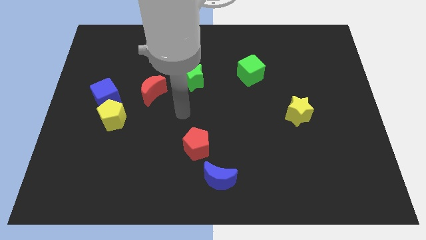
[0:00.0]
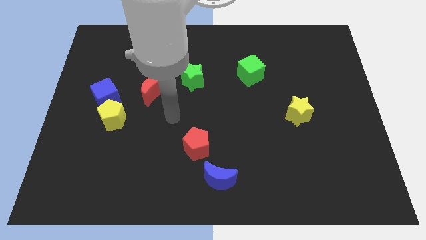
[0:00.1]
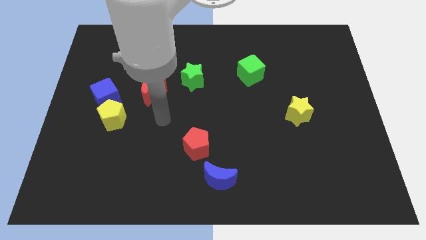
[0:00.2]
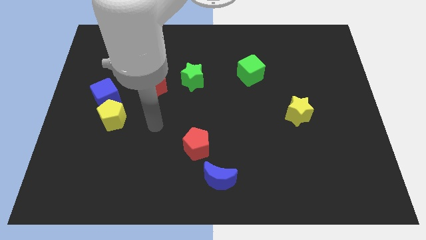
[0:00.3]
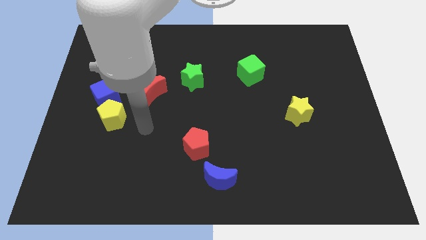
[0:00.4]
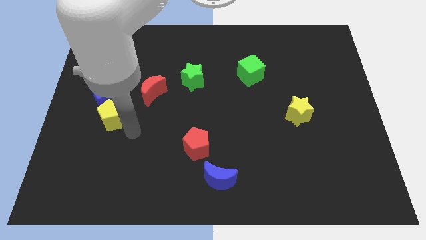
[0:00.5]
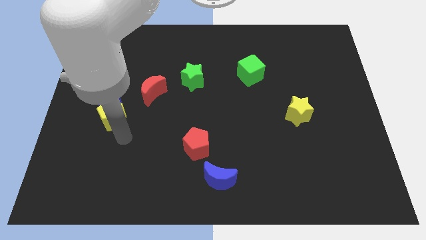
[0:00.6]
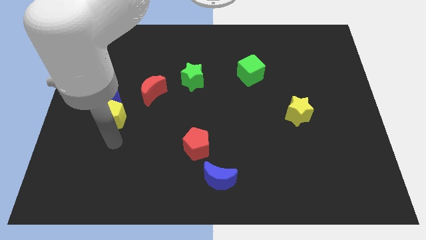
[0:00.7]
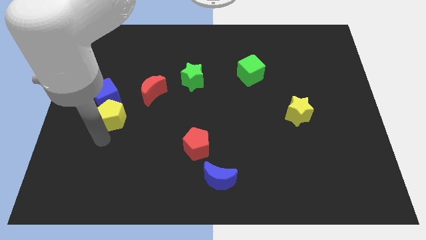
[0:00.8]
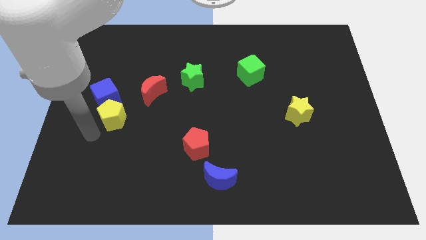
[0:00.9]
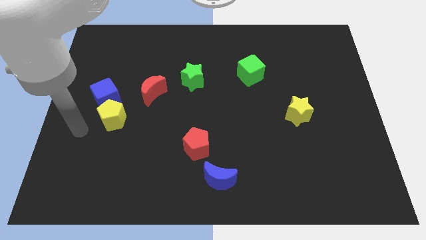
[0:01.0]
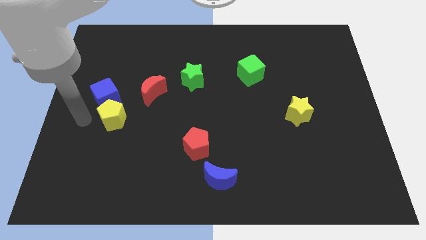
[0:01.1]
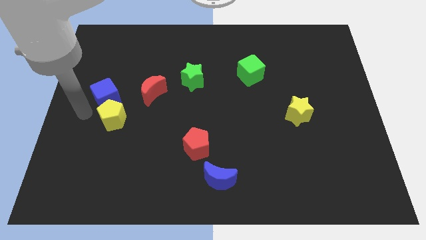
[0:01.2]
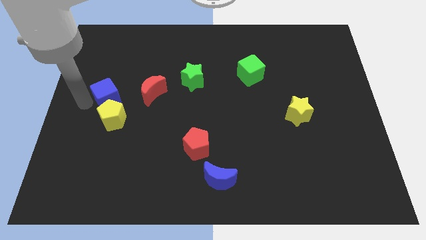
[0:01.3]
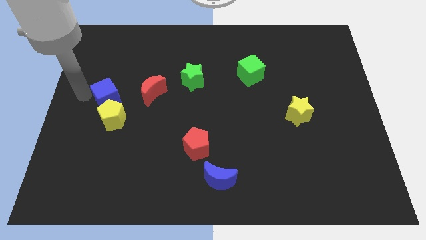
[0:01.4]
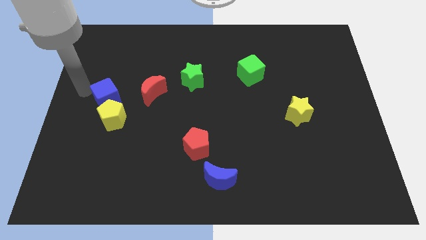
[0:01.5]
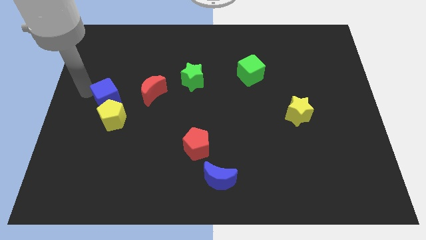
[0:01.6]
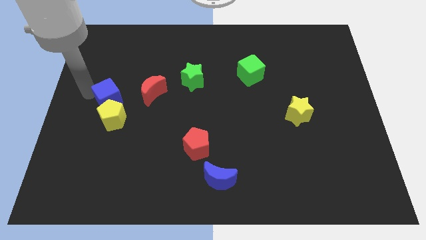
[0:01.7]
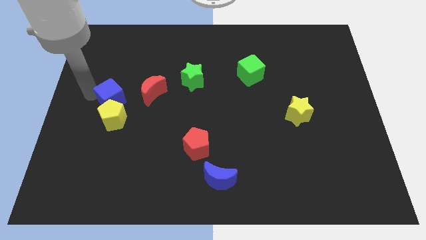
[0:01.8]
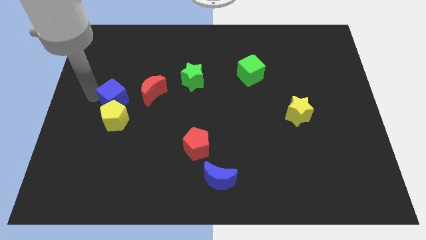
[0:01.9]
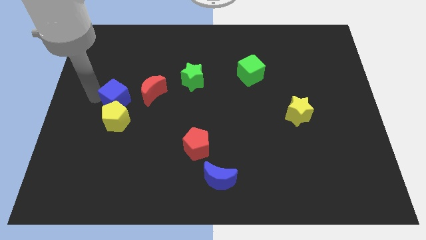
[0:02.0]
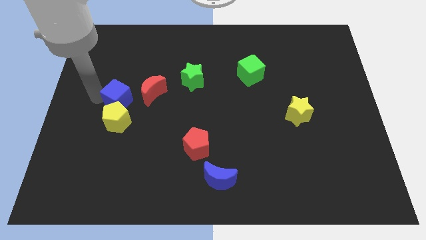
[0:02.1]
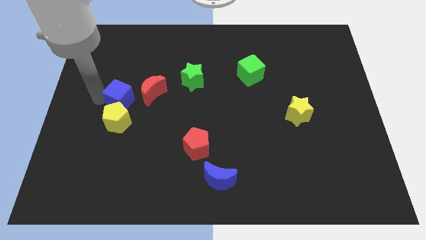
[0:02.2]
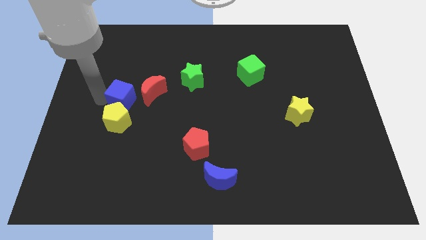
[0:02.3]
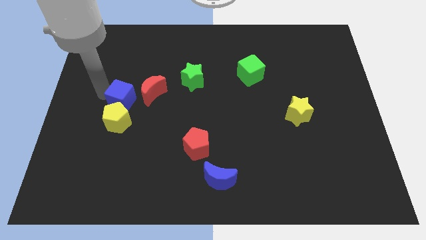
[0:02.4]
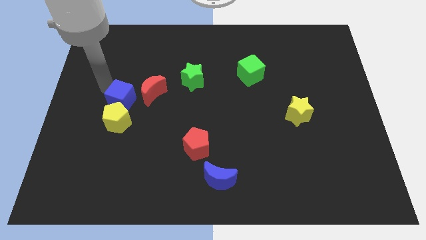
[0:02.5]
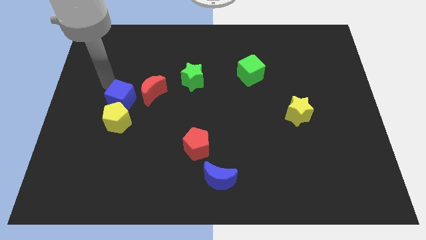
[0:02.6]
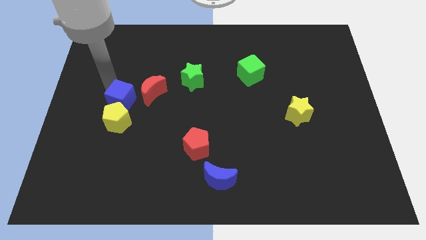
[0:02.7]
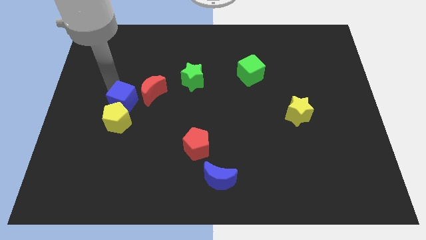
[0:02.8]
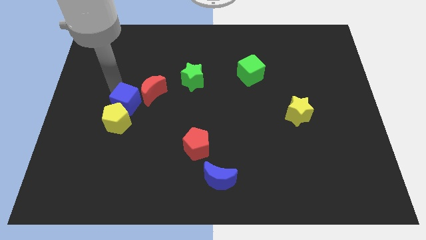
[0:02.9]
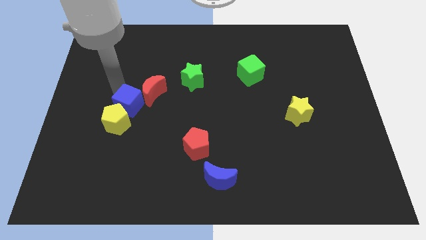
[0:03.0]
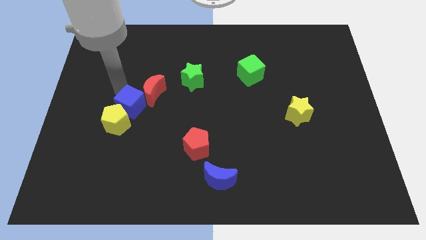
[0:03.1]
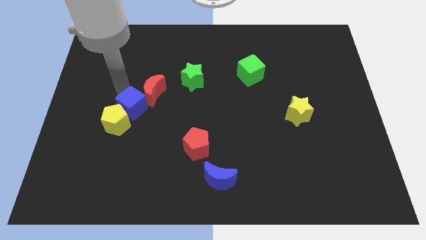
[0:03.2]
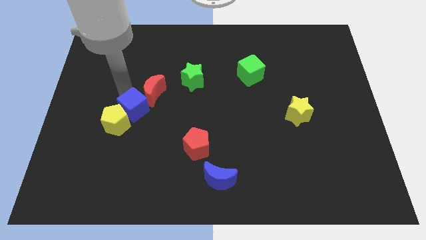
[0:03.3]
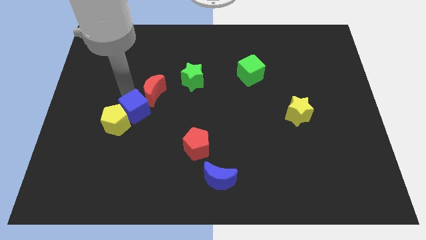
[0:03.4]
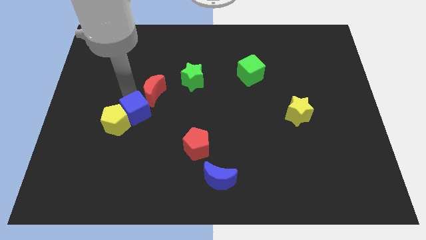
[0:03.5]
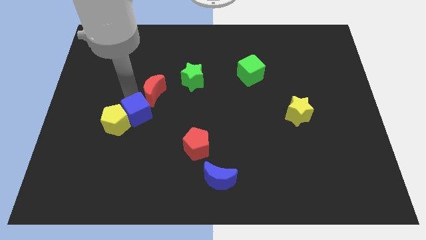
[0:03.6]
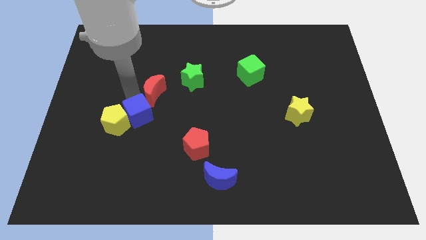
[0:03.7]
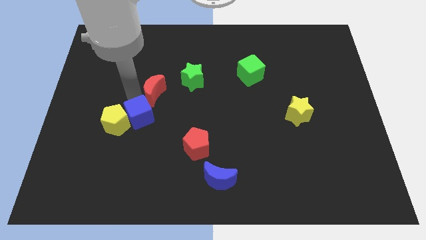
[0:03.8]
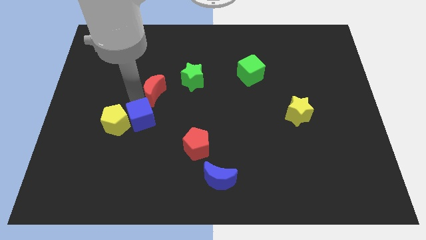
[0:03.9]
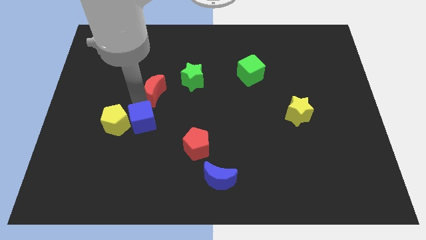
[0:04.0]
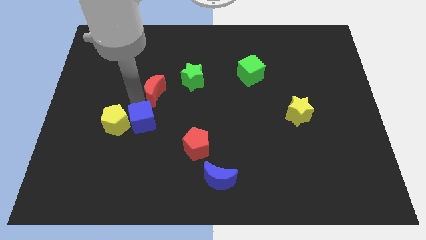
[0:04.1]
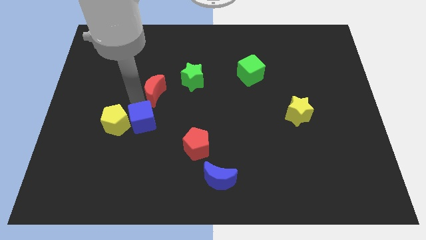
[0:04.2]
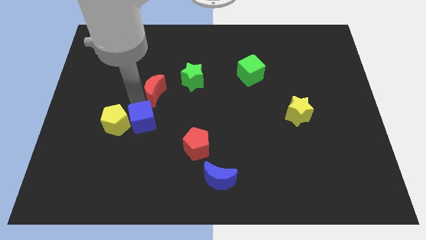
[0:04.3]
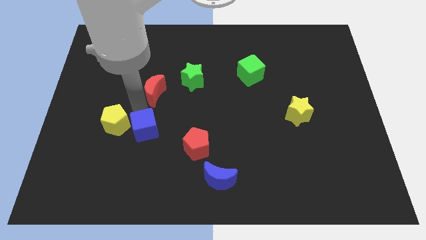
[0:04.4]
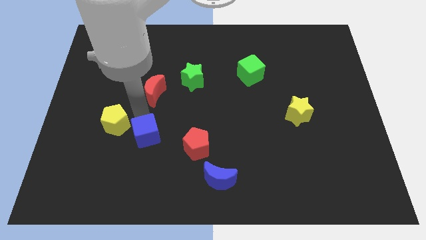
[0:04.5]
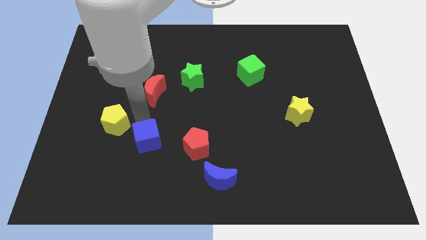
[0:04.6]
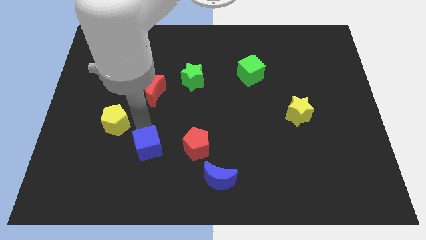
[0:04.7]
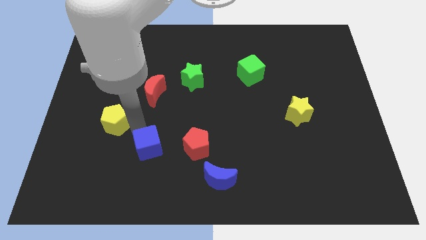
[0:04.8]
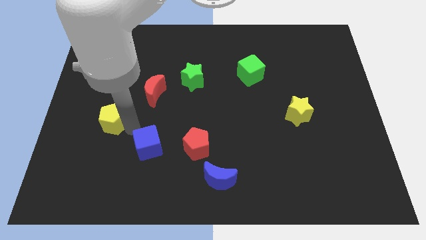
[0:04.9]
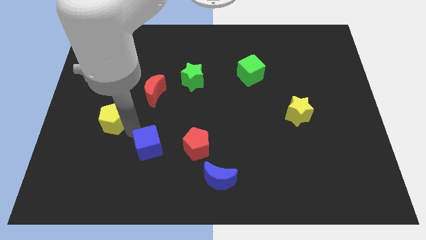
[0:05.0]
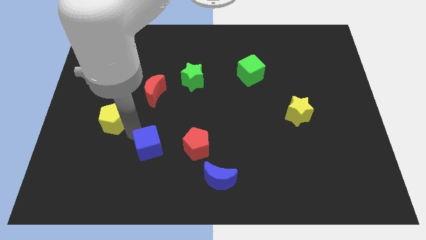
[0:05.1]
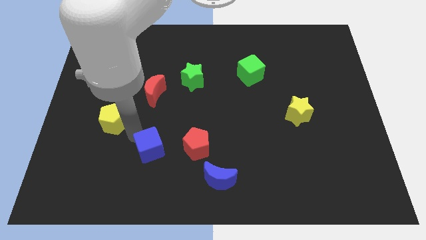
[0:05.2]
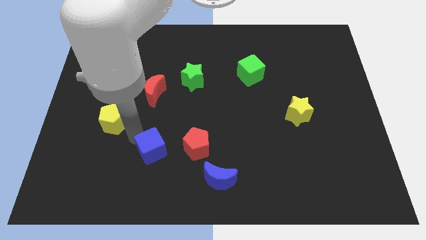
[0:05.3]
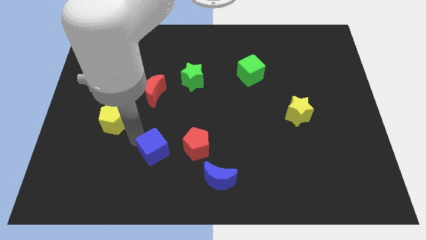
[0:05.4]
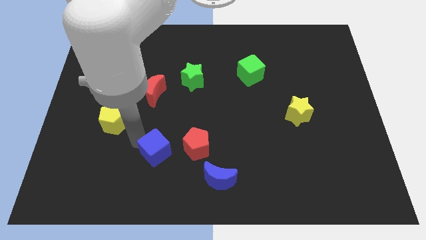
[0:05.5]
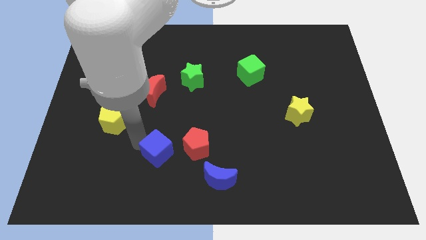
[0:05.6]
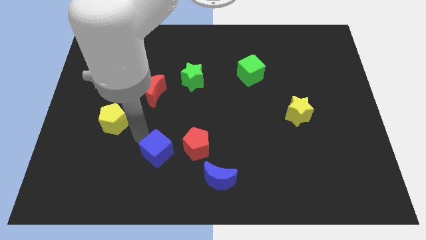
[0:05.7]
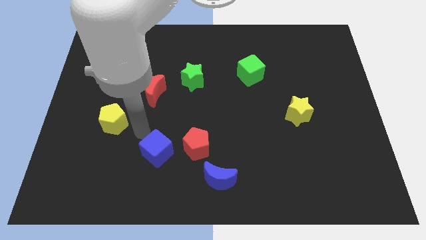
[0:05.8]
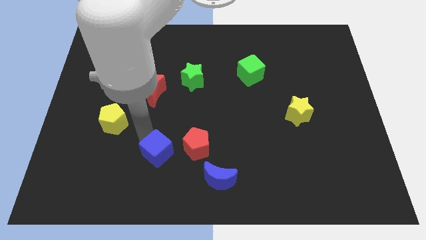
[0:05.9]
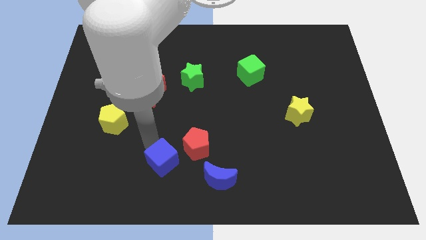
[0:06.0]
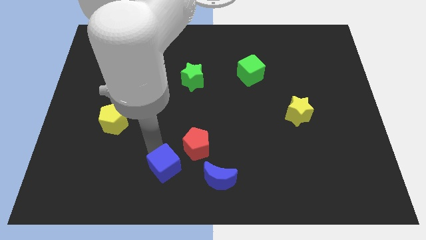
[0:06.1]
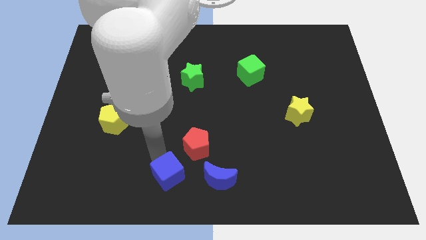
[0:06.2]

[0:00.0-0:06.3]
move the blue cube to the bottom side
